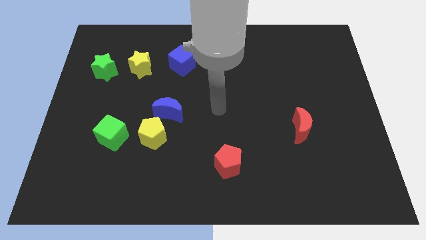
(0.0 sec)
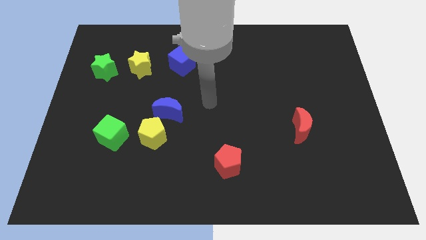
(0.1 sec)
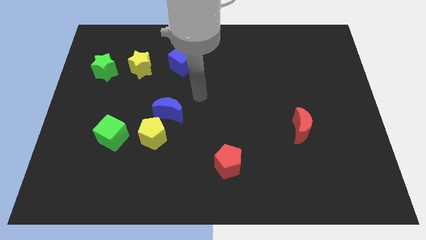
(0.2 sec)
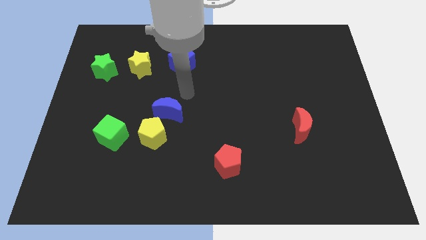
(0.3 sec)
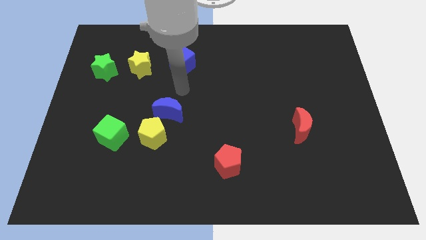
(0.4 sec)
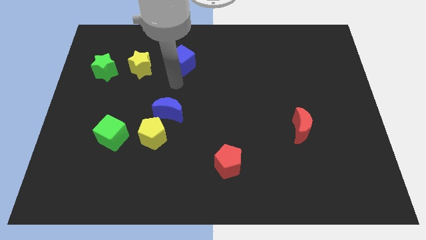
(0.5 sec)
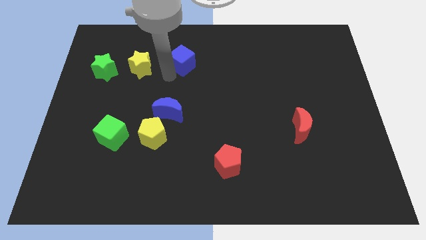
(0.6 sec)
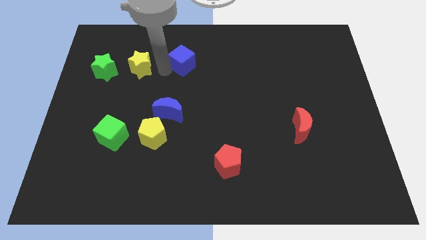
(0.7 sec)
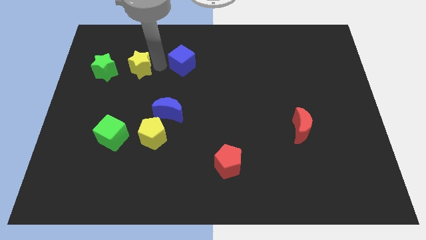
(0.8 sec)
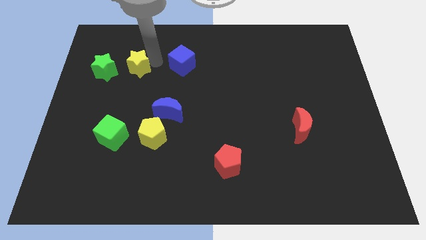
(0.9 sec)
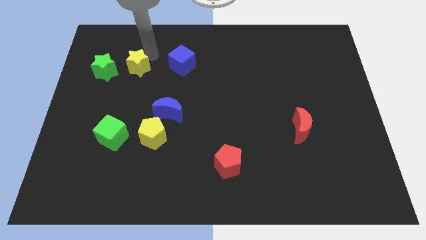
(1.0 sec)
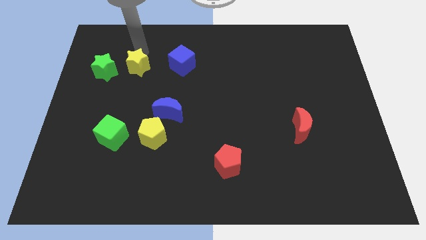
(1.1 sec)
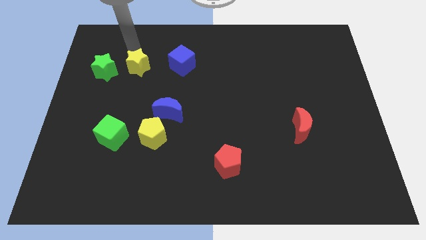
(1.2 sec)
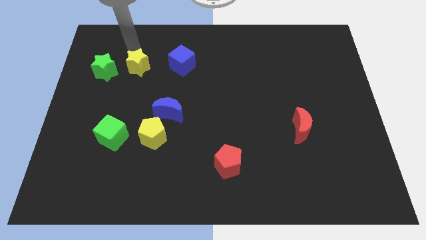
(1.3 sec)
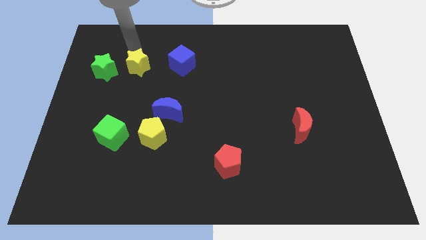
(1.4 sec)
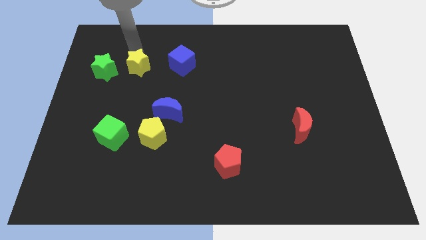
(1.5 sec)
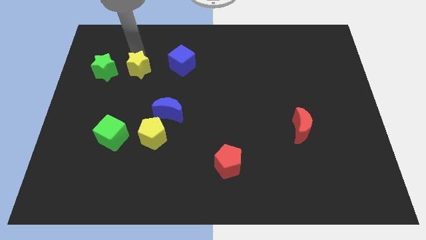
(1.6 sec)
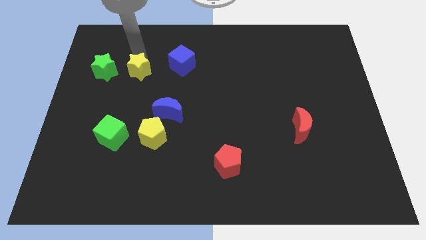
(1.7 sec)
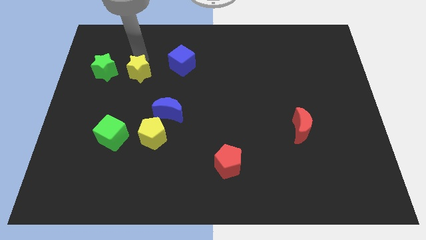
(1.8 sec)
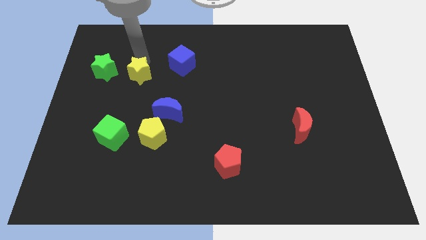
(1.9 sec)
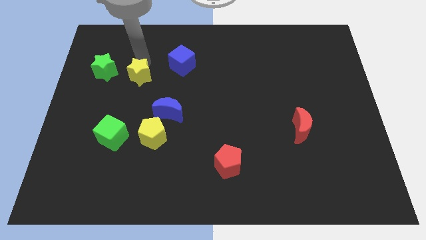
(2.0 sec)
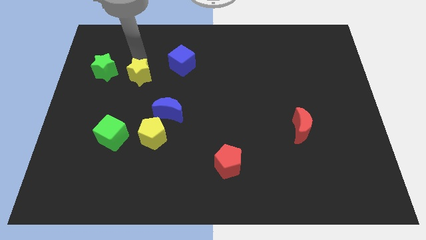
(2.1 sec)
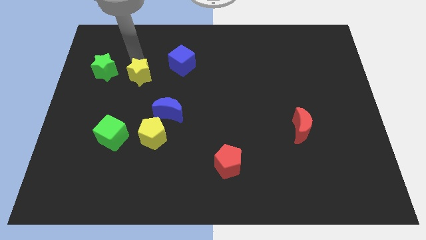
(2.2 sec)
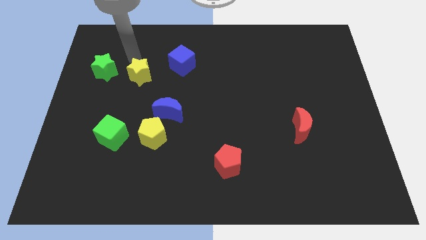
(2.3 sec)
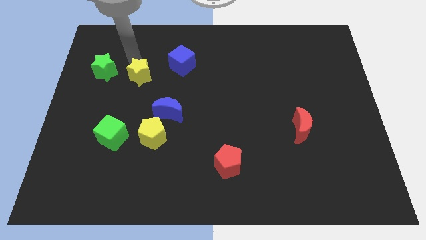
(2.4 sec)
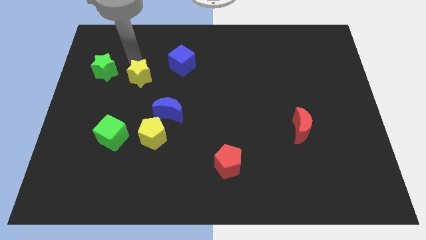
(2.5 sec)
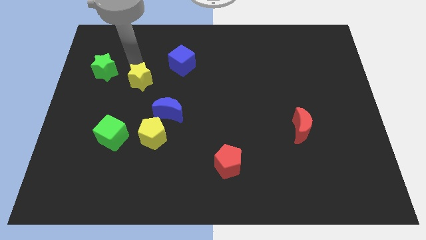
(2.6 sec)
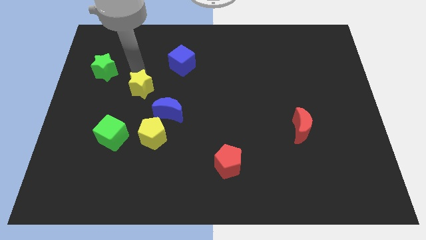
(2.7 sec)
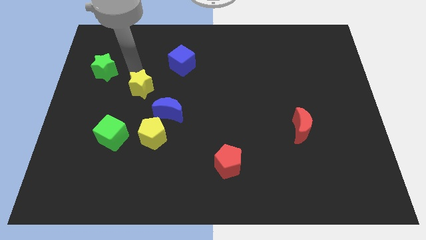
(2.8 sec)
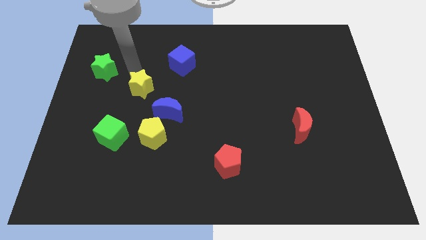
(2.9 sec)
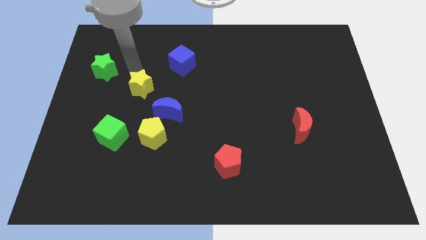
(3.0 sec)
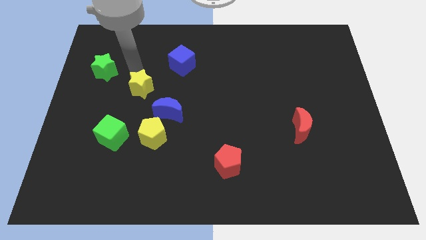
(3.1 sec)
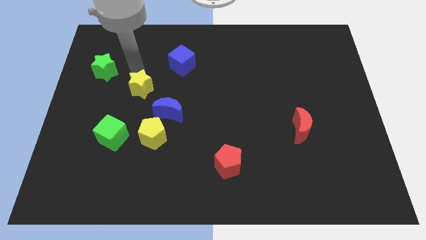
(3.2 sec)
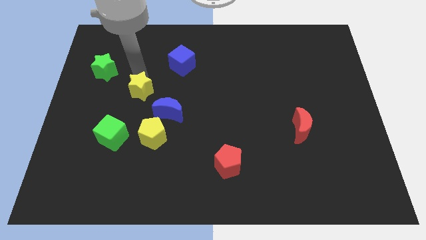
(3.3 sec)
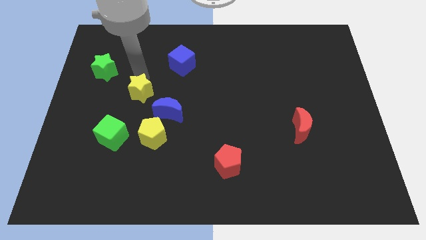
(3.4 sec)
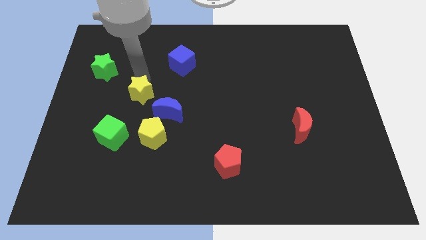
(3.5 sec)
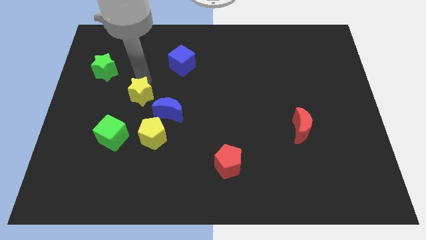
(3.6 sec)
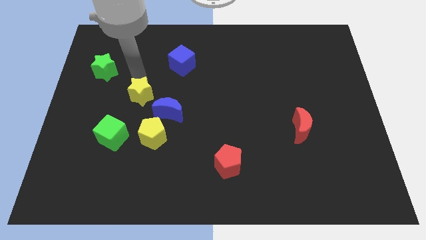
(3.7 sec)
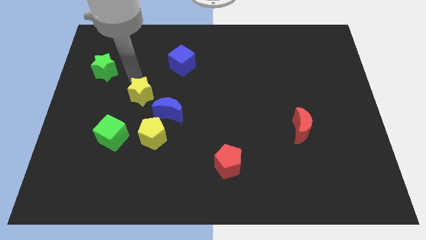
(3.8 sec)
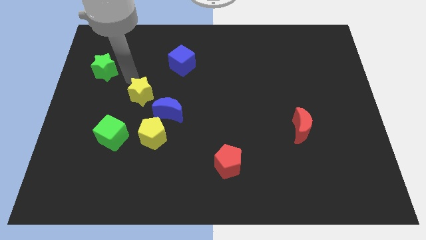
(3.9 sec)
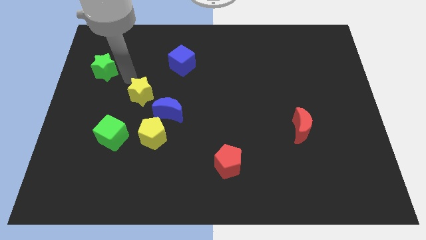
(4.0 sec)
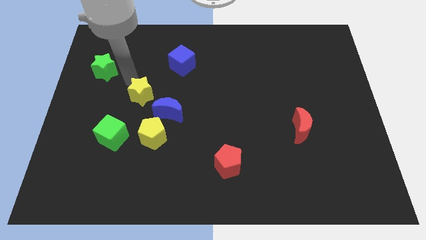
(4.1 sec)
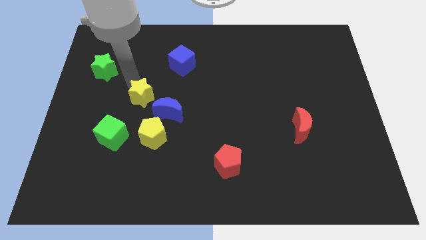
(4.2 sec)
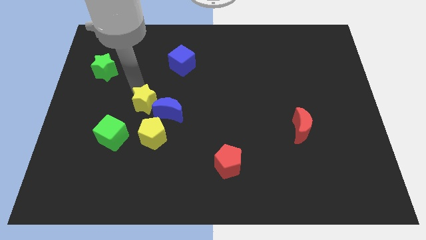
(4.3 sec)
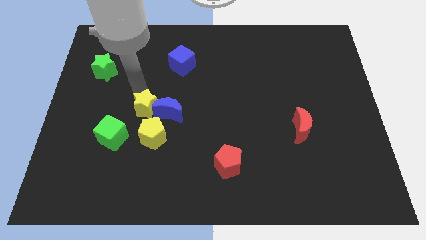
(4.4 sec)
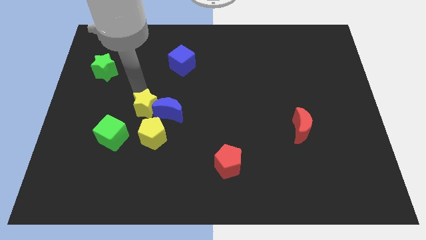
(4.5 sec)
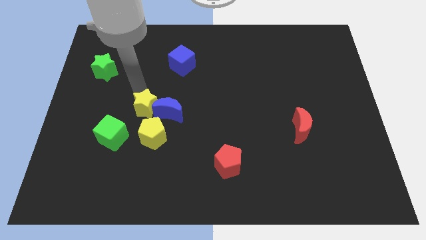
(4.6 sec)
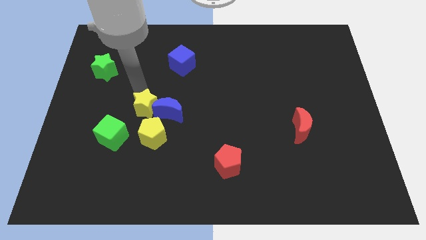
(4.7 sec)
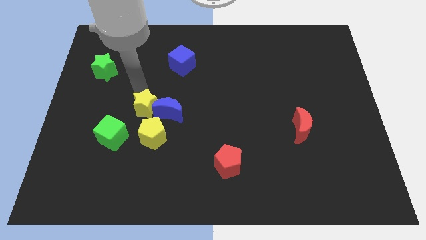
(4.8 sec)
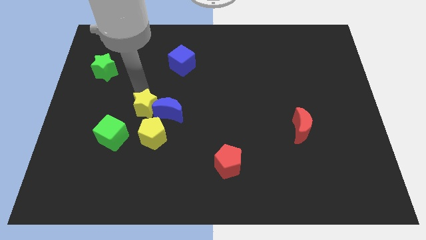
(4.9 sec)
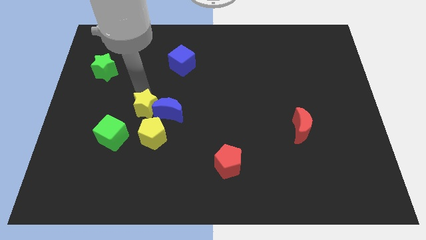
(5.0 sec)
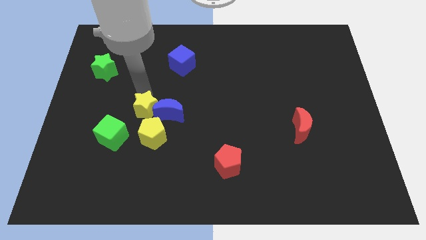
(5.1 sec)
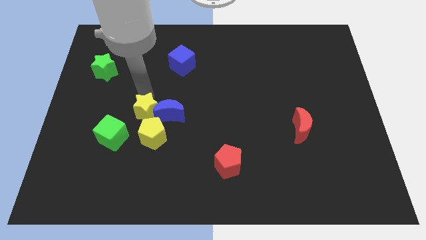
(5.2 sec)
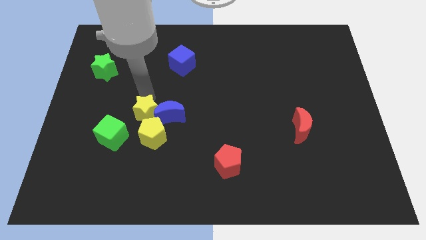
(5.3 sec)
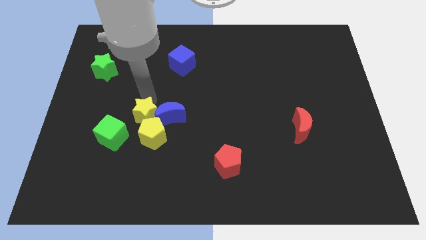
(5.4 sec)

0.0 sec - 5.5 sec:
push the yellow star next to the yellow pentagon

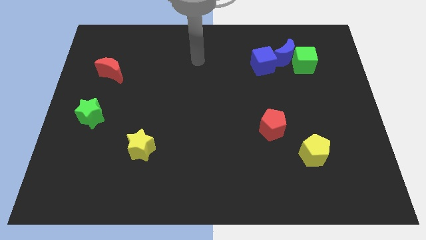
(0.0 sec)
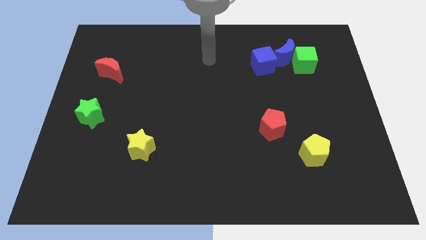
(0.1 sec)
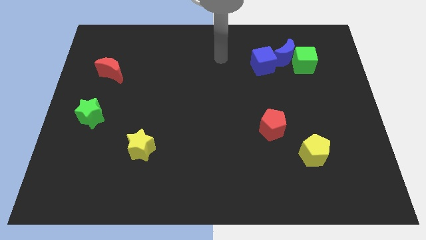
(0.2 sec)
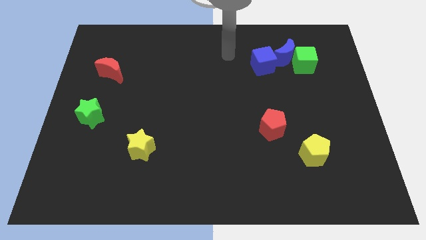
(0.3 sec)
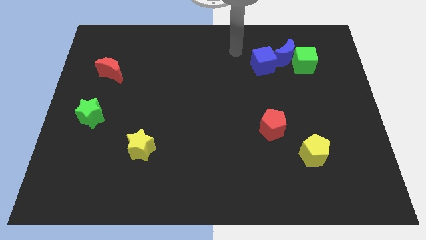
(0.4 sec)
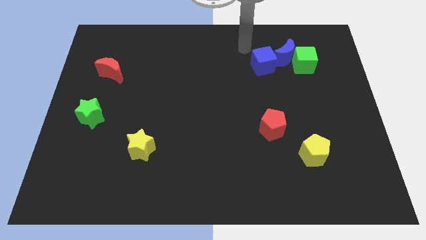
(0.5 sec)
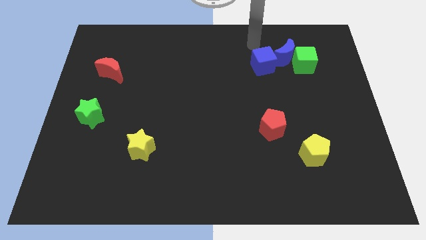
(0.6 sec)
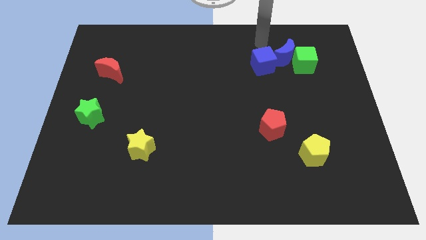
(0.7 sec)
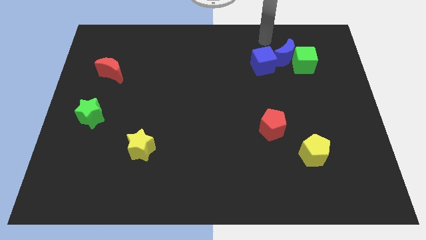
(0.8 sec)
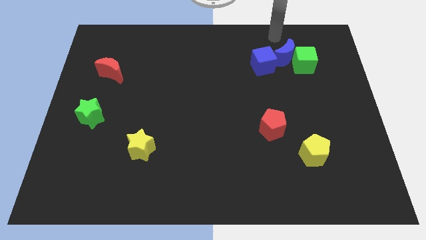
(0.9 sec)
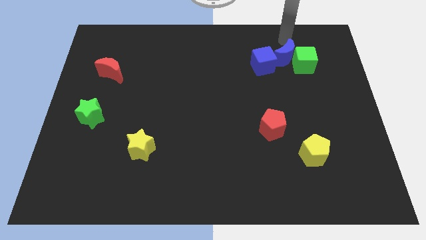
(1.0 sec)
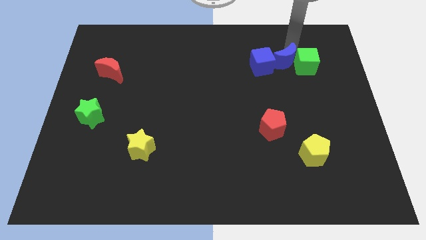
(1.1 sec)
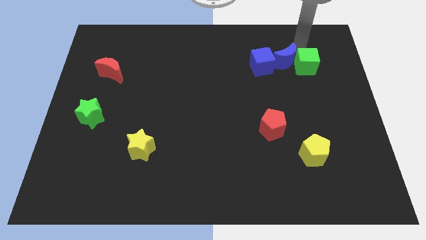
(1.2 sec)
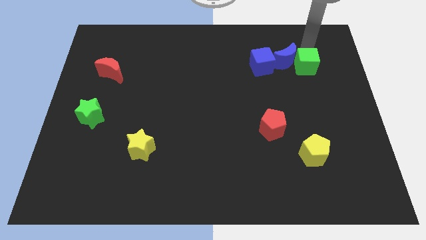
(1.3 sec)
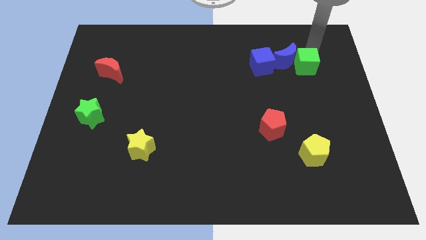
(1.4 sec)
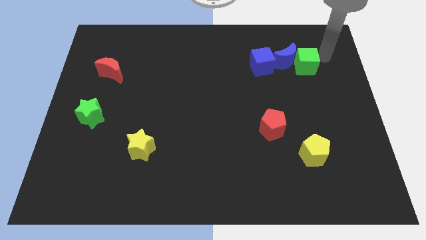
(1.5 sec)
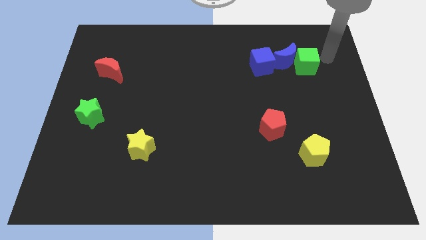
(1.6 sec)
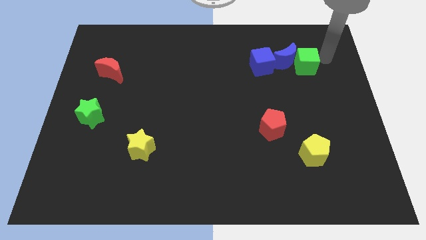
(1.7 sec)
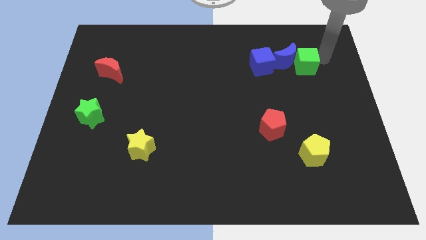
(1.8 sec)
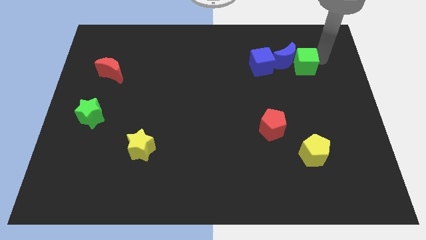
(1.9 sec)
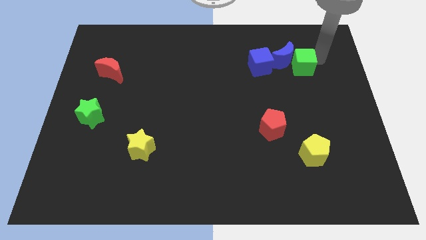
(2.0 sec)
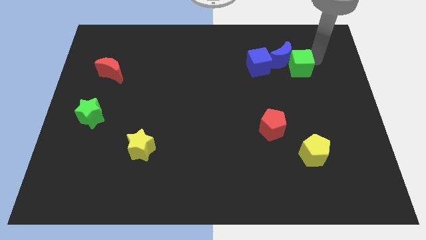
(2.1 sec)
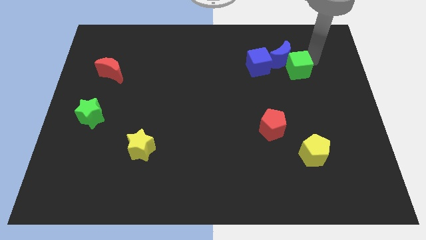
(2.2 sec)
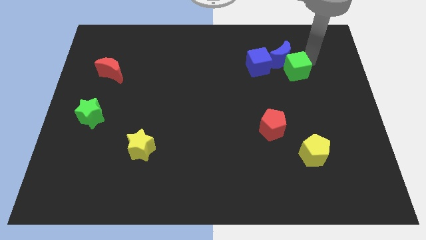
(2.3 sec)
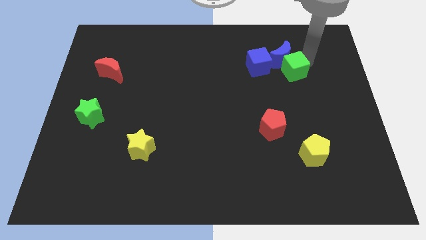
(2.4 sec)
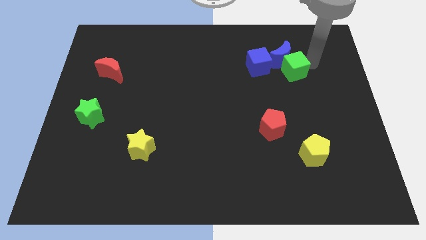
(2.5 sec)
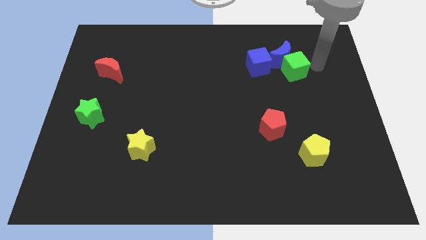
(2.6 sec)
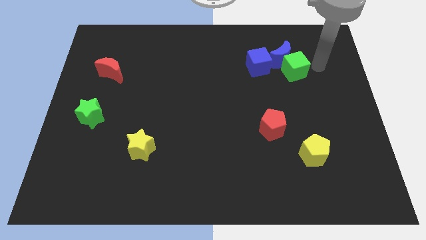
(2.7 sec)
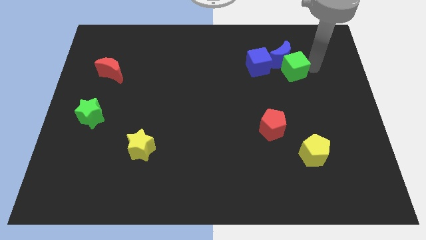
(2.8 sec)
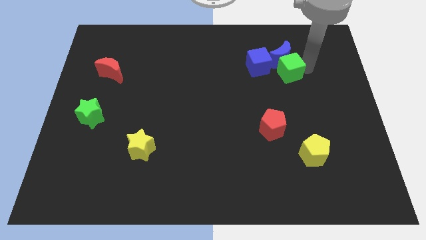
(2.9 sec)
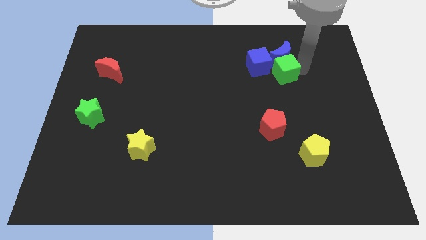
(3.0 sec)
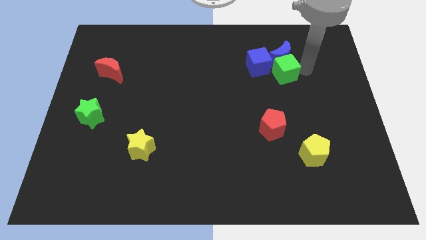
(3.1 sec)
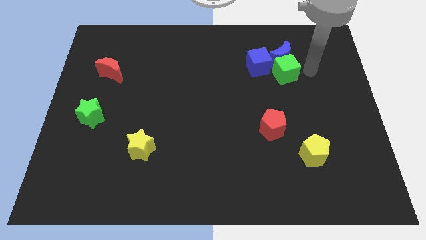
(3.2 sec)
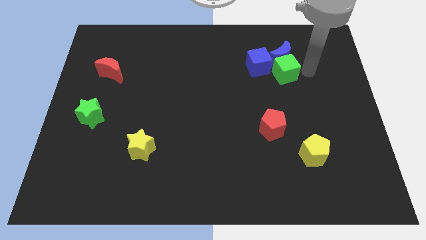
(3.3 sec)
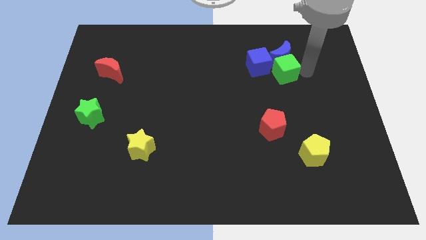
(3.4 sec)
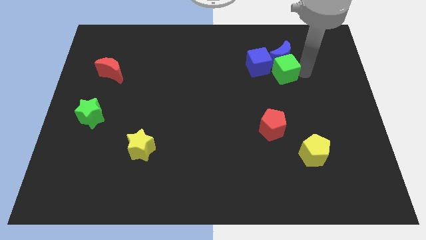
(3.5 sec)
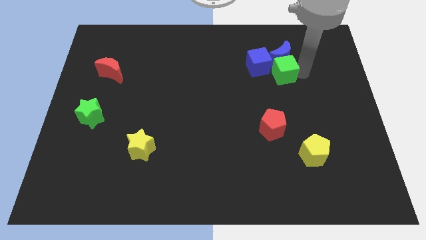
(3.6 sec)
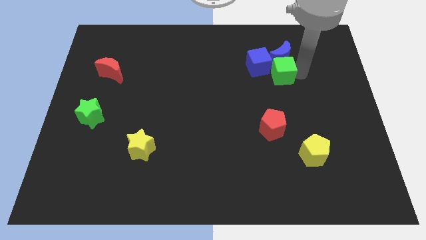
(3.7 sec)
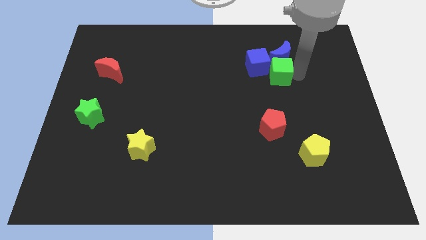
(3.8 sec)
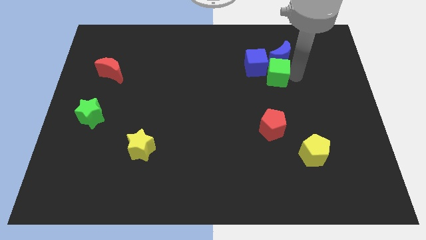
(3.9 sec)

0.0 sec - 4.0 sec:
slide the green cube close to the blue cube
